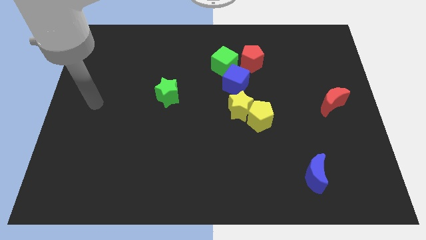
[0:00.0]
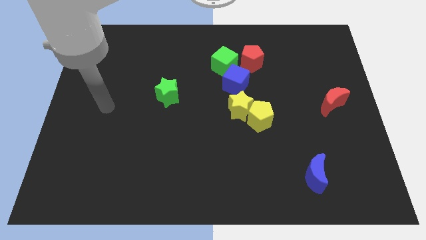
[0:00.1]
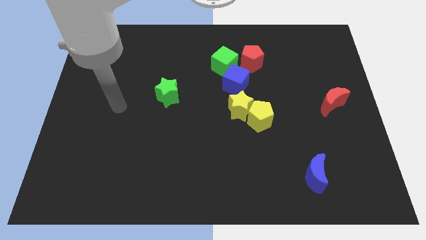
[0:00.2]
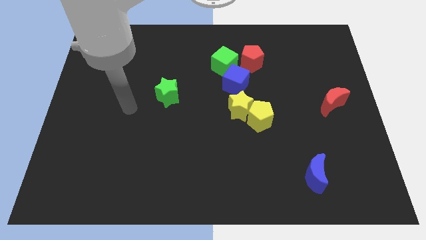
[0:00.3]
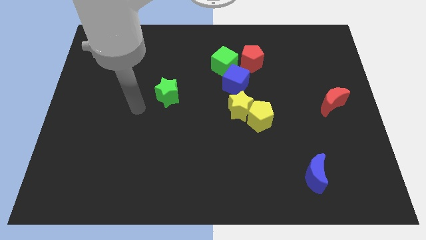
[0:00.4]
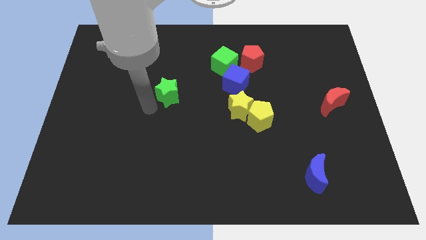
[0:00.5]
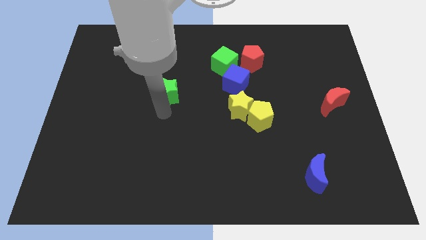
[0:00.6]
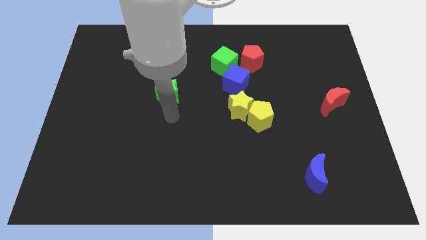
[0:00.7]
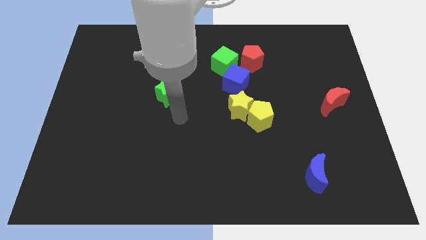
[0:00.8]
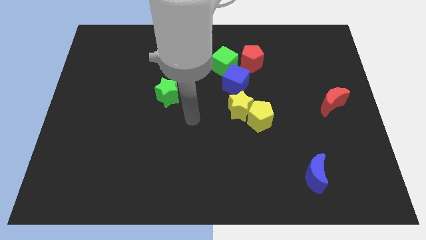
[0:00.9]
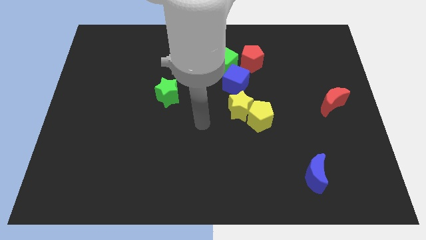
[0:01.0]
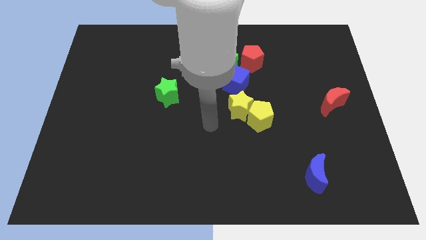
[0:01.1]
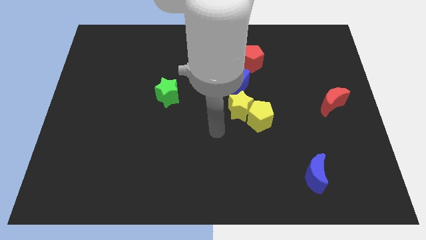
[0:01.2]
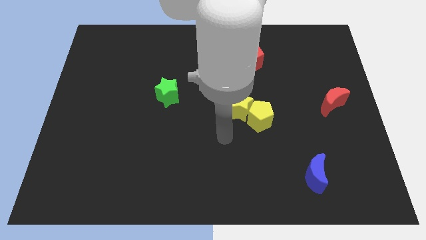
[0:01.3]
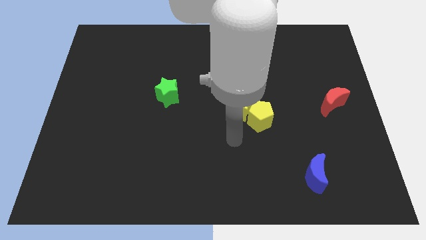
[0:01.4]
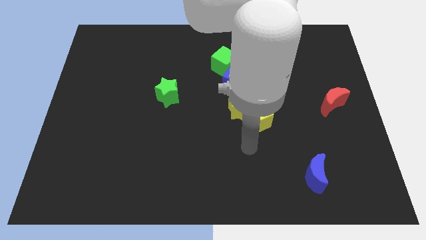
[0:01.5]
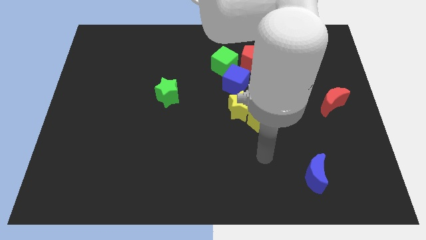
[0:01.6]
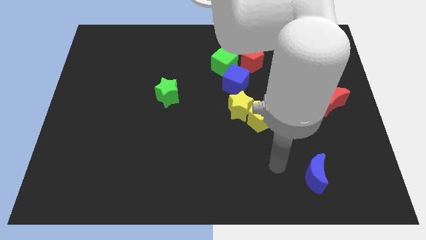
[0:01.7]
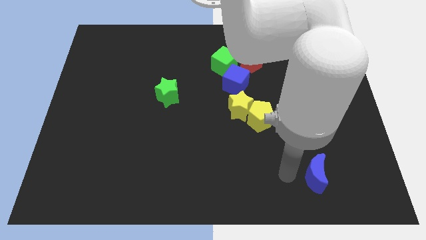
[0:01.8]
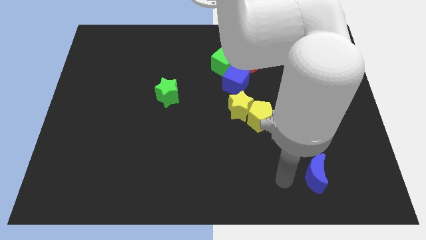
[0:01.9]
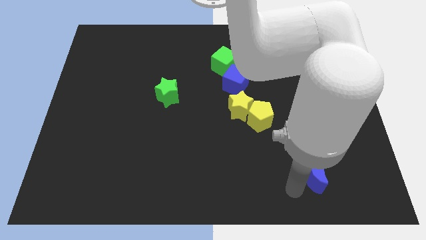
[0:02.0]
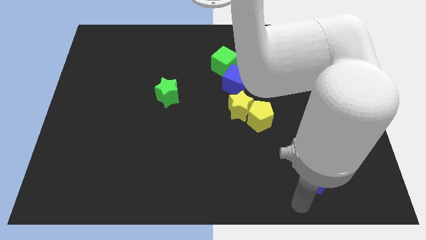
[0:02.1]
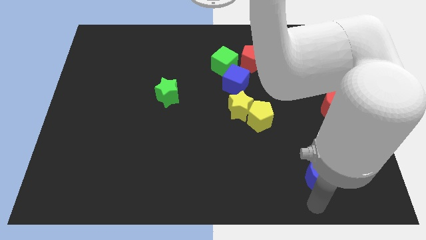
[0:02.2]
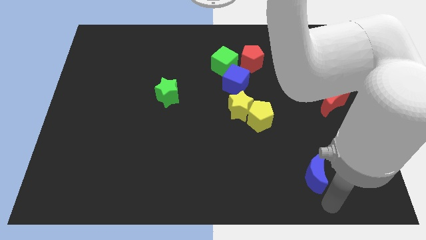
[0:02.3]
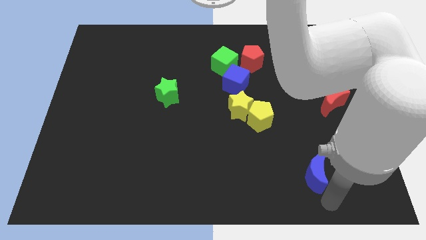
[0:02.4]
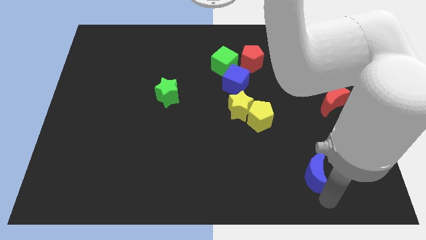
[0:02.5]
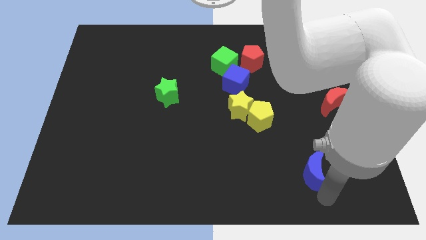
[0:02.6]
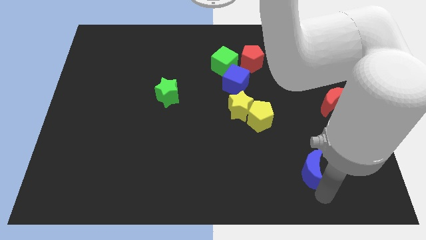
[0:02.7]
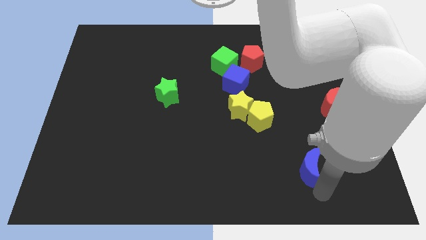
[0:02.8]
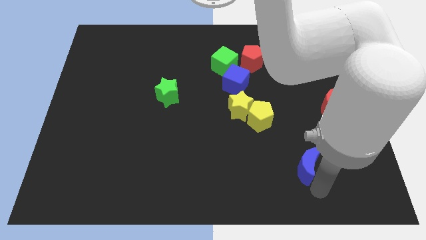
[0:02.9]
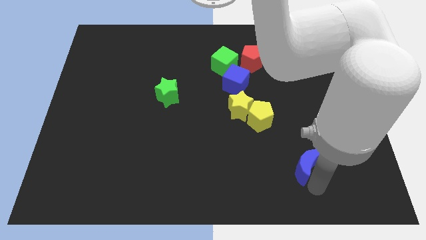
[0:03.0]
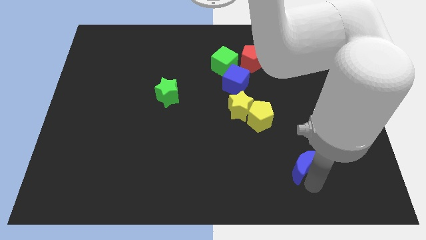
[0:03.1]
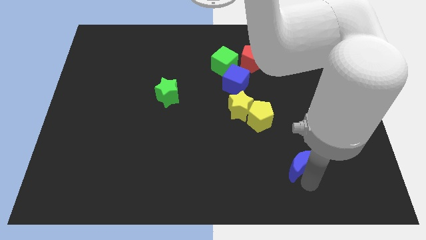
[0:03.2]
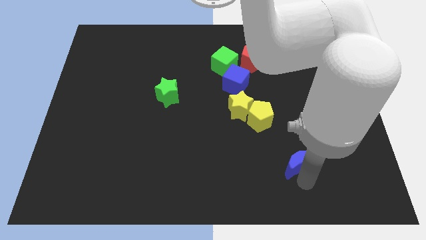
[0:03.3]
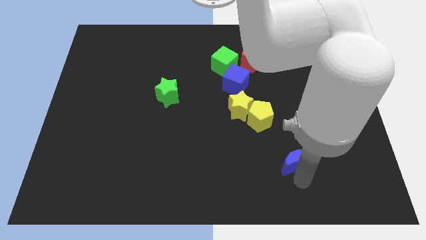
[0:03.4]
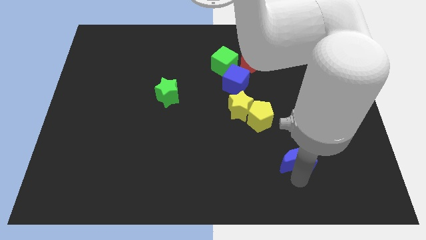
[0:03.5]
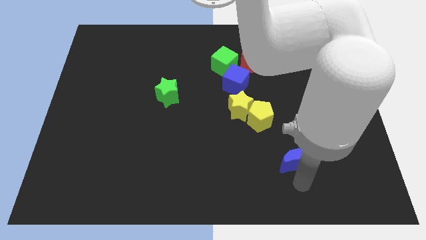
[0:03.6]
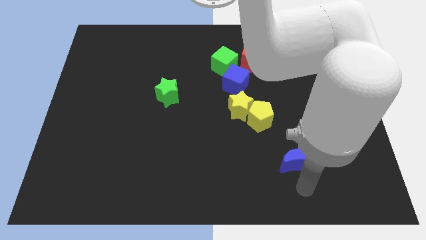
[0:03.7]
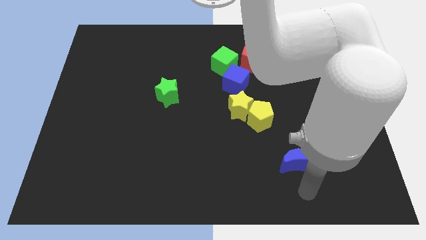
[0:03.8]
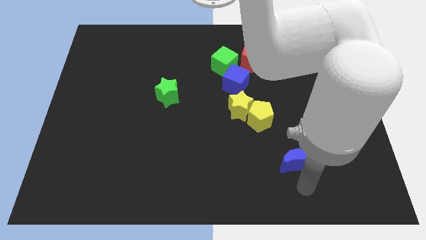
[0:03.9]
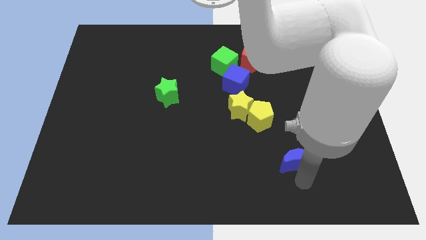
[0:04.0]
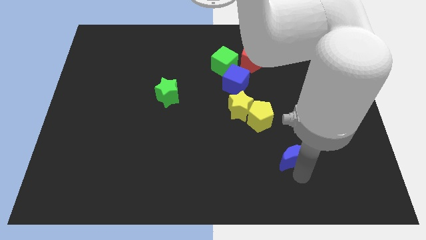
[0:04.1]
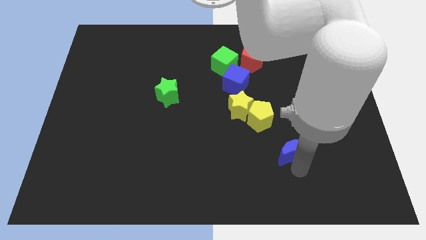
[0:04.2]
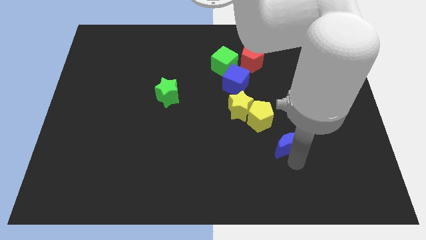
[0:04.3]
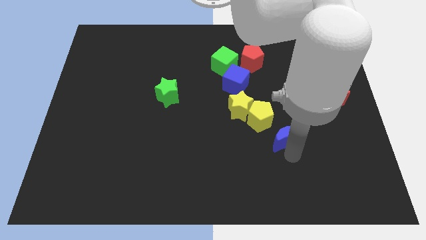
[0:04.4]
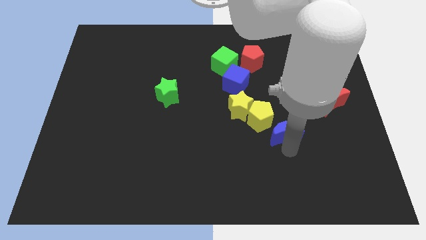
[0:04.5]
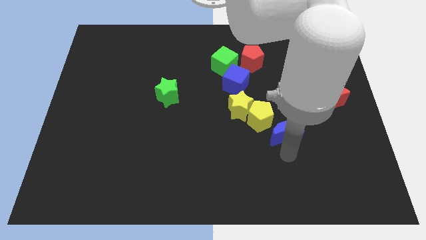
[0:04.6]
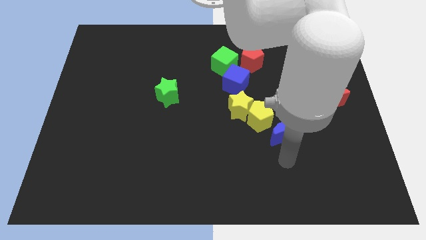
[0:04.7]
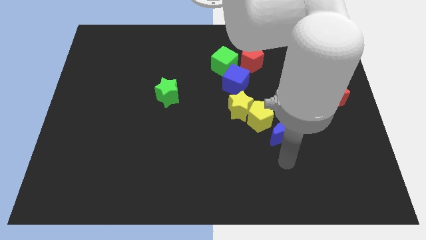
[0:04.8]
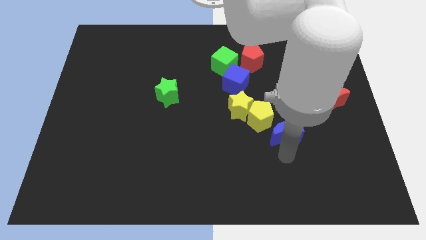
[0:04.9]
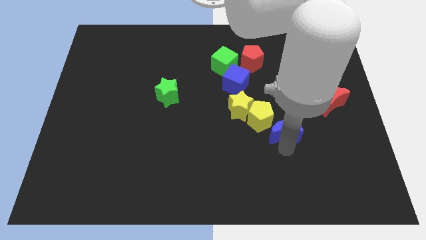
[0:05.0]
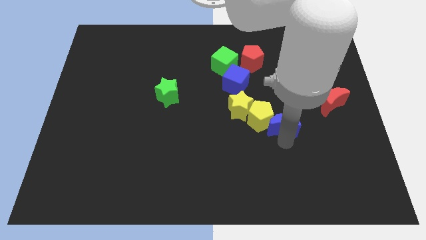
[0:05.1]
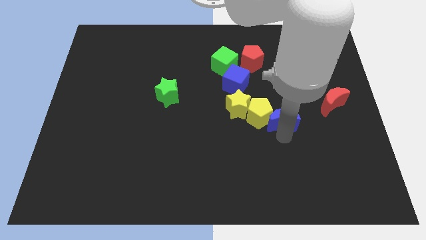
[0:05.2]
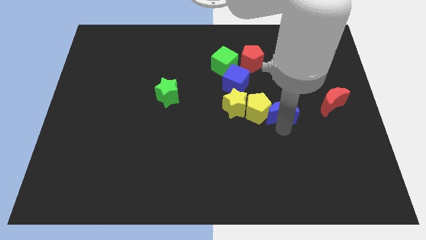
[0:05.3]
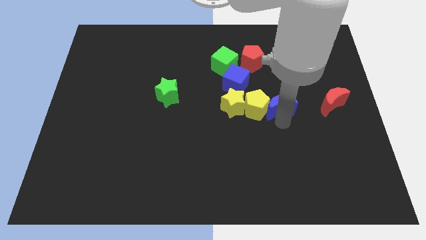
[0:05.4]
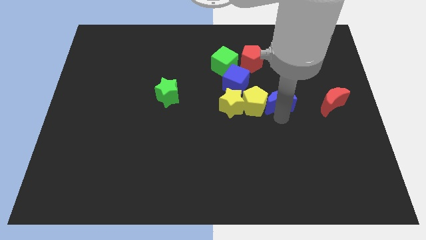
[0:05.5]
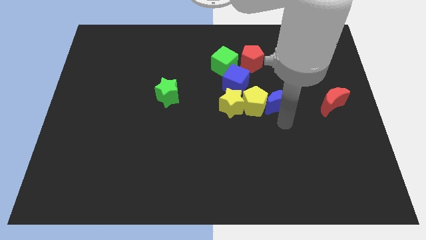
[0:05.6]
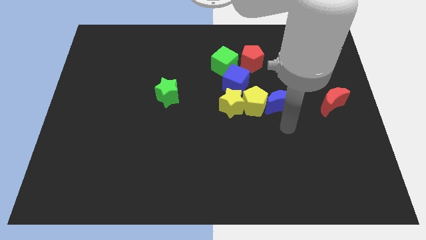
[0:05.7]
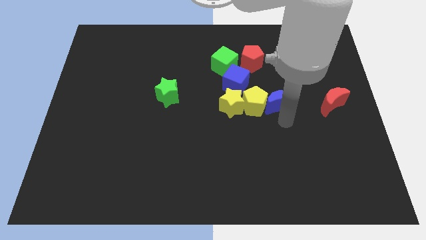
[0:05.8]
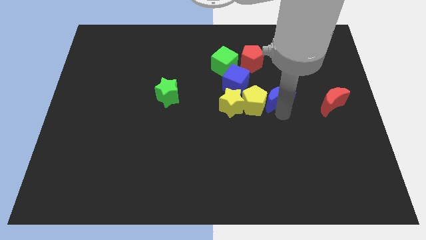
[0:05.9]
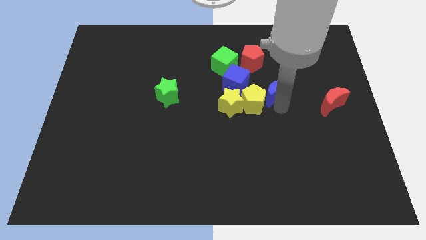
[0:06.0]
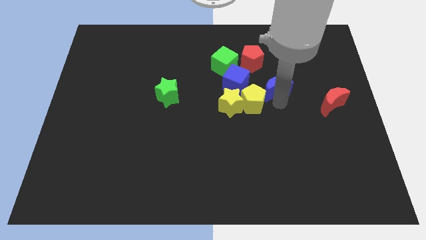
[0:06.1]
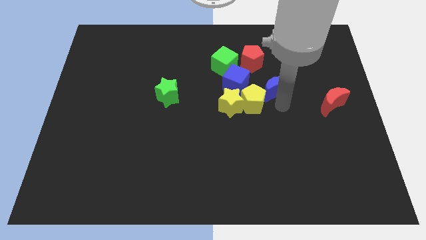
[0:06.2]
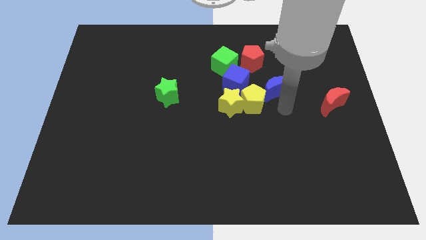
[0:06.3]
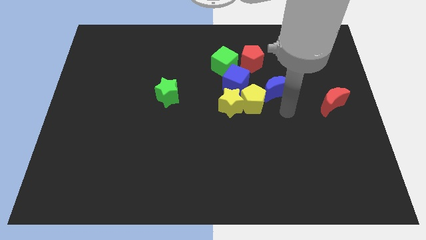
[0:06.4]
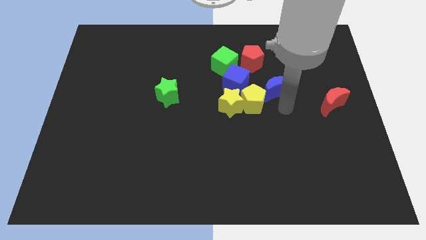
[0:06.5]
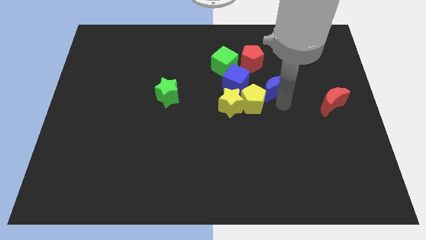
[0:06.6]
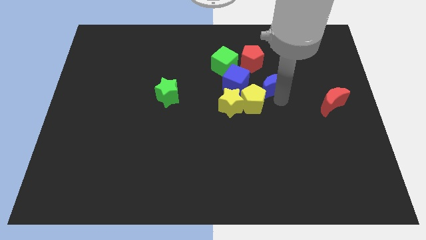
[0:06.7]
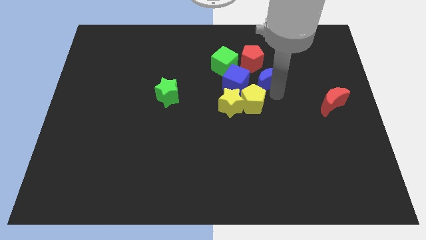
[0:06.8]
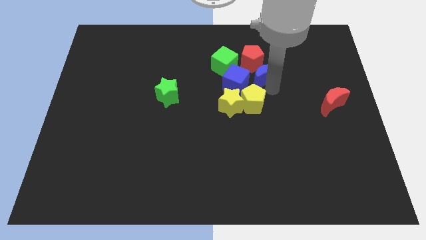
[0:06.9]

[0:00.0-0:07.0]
put the blue moon just right of the green cube
